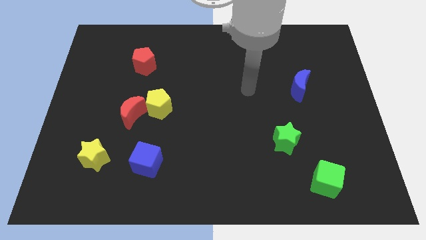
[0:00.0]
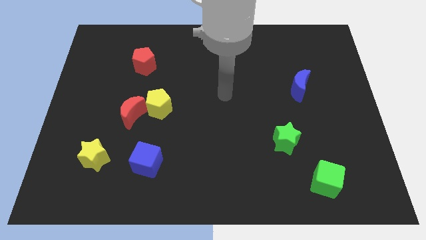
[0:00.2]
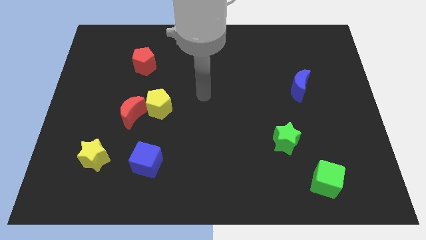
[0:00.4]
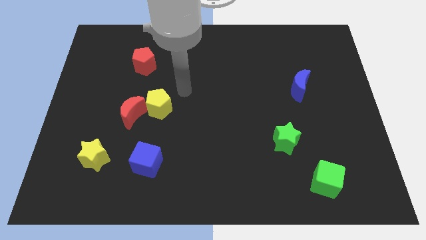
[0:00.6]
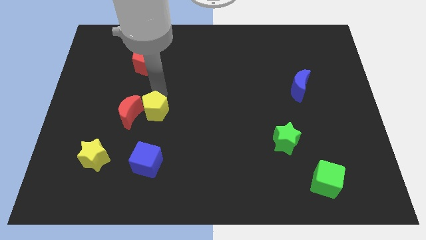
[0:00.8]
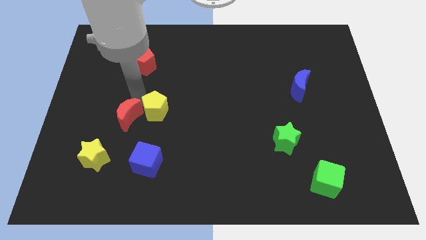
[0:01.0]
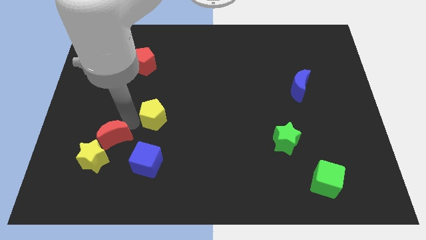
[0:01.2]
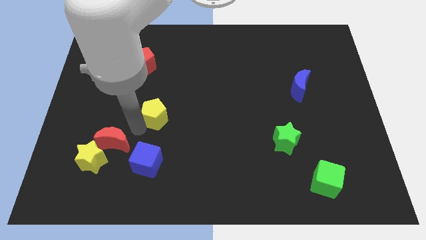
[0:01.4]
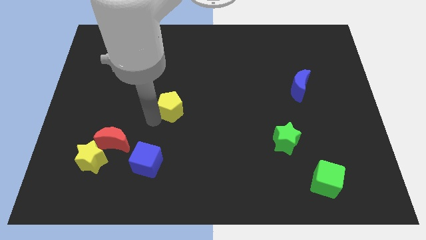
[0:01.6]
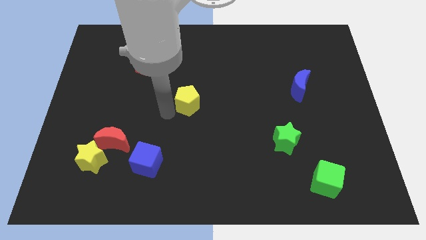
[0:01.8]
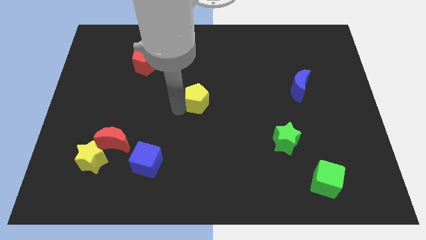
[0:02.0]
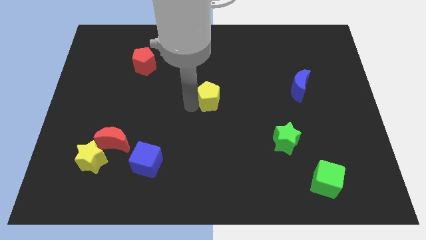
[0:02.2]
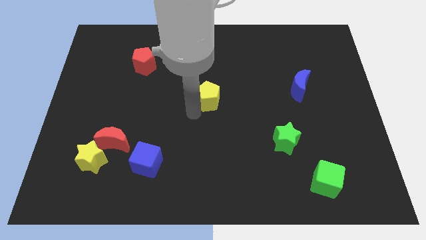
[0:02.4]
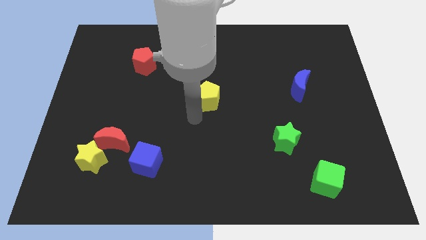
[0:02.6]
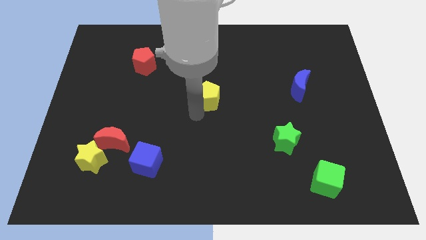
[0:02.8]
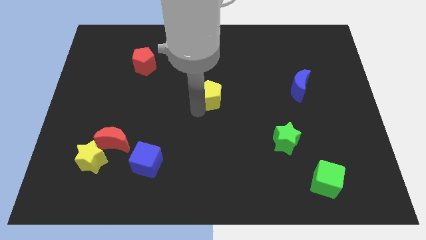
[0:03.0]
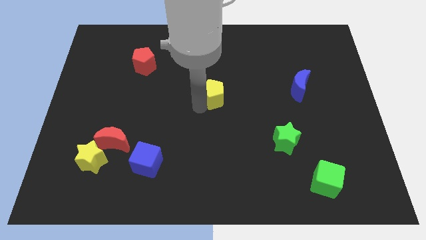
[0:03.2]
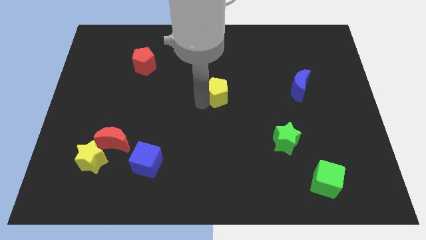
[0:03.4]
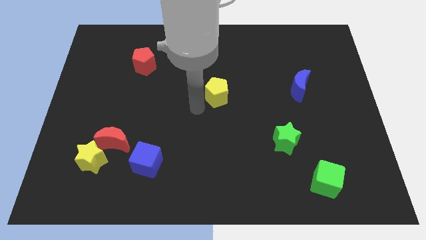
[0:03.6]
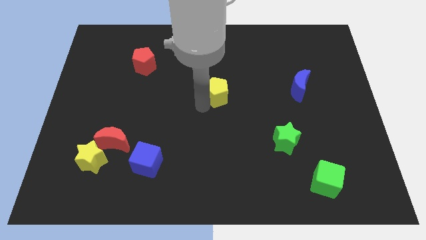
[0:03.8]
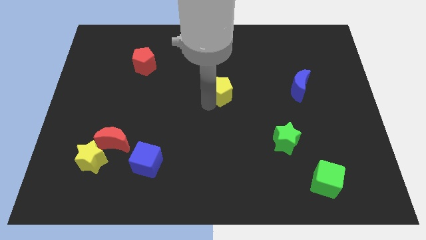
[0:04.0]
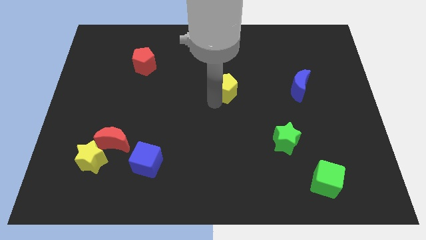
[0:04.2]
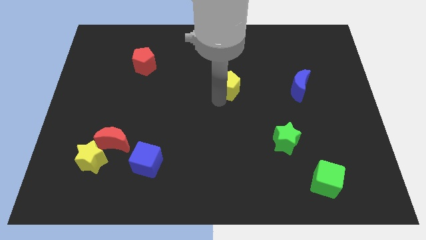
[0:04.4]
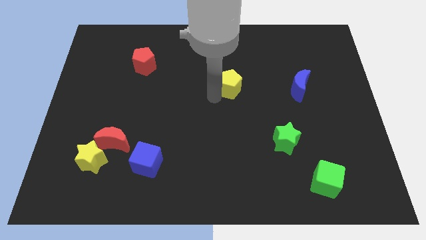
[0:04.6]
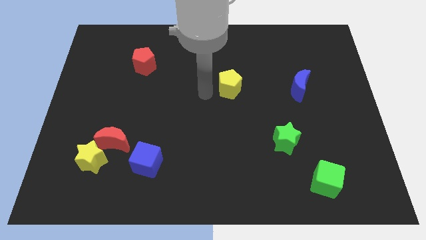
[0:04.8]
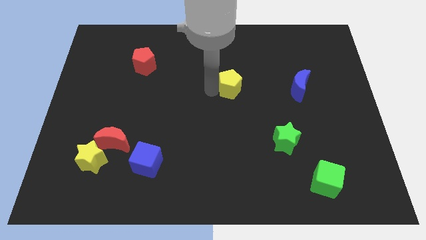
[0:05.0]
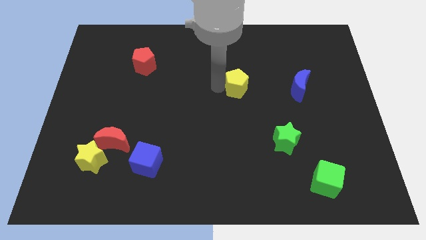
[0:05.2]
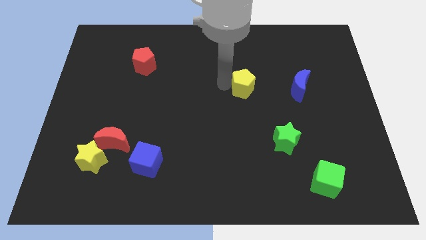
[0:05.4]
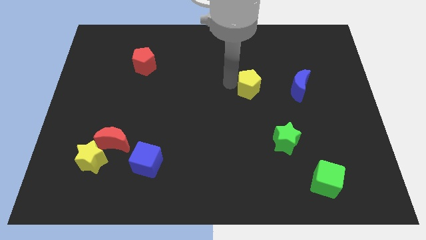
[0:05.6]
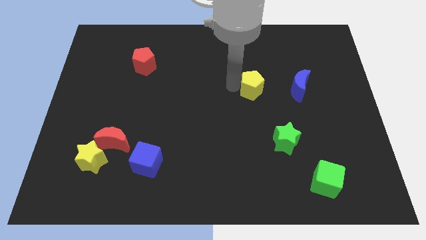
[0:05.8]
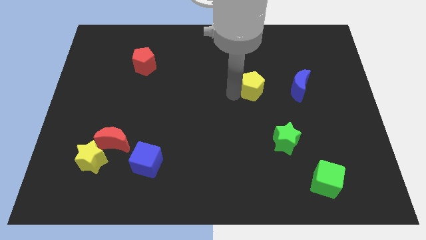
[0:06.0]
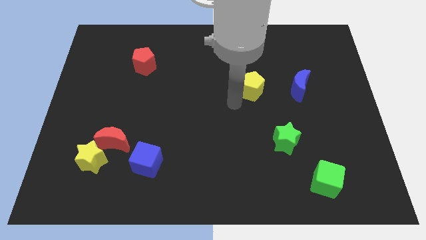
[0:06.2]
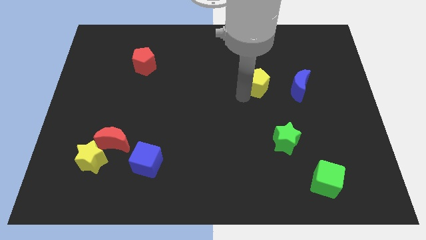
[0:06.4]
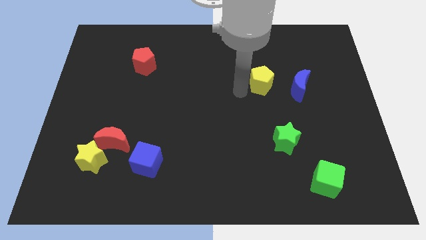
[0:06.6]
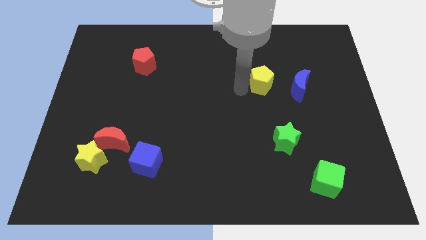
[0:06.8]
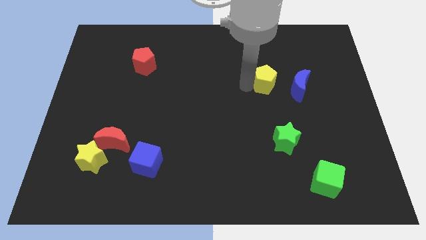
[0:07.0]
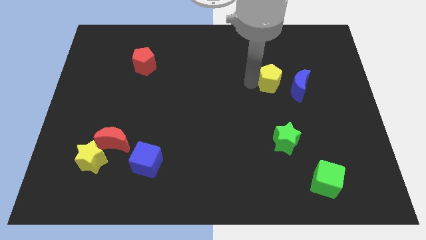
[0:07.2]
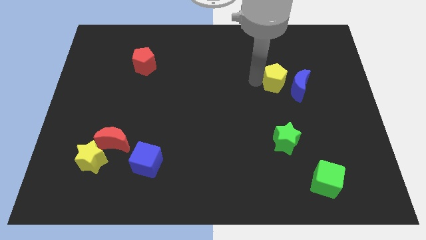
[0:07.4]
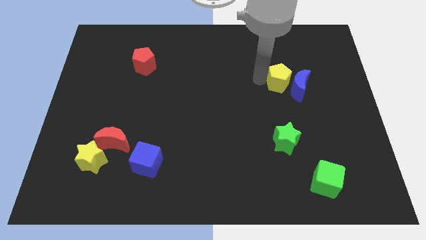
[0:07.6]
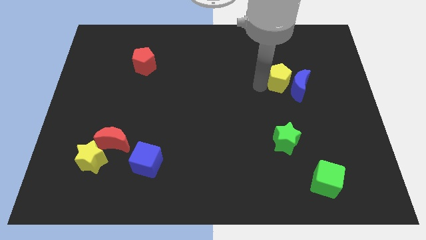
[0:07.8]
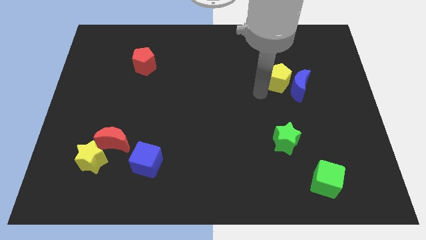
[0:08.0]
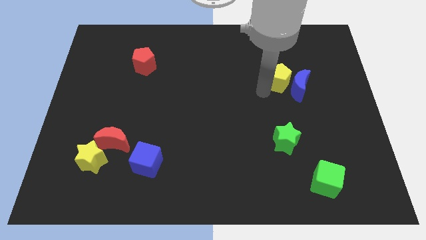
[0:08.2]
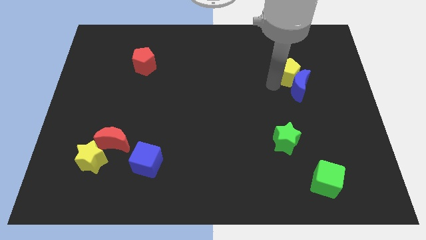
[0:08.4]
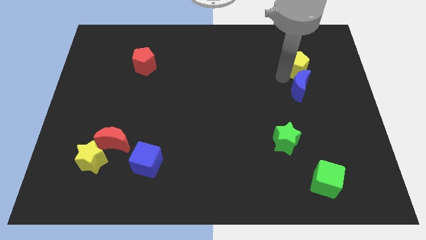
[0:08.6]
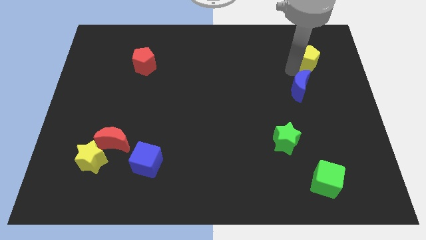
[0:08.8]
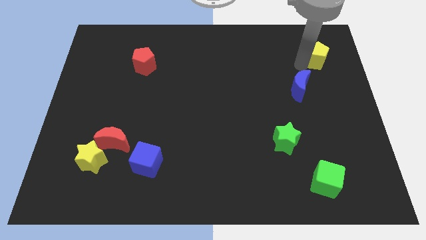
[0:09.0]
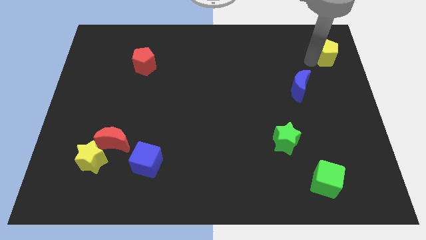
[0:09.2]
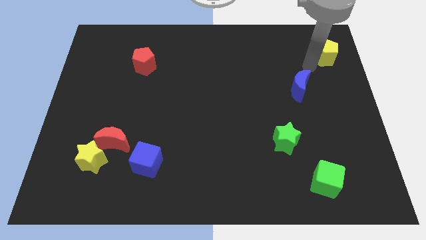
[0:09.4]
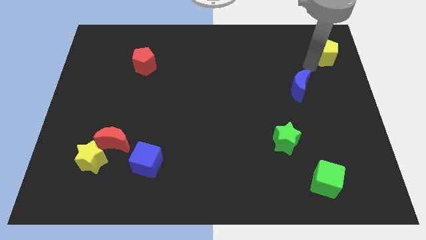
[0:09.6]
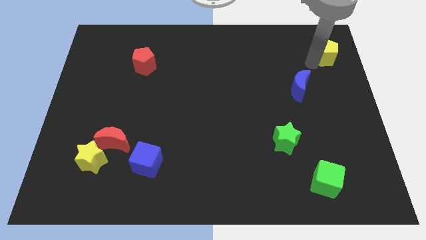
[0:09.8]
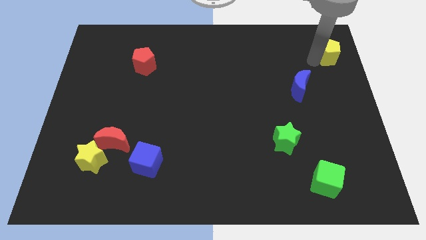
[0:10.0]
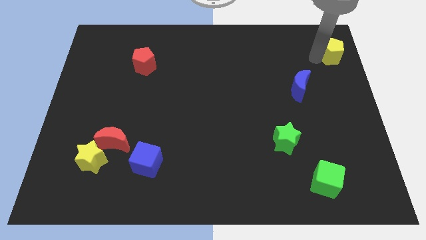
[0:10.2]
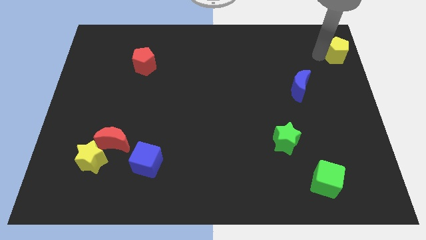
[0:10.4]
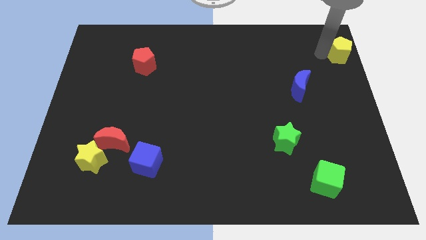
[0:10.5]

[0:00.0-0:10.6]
slide the yellow pentagon to the upper right corner

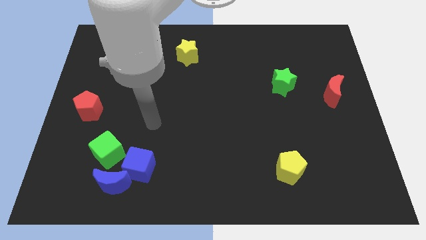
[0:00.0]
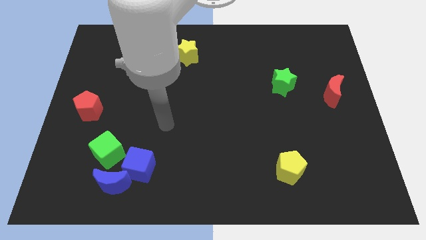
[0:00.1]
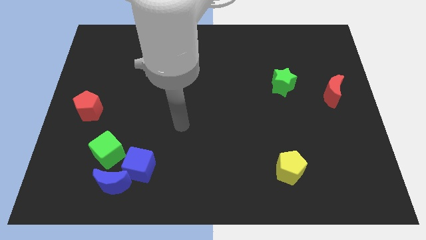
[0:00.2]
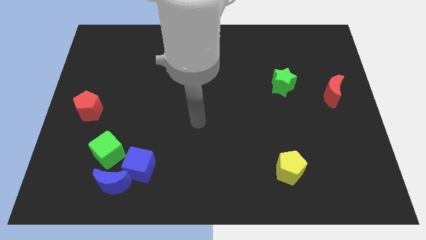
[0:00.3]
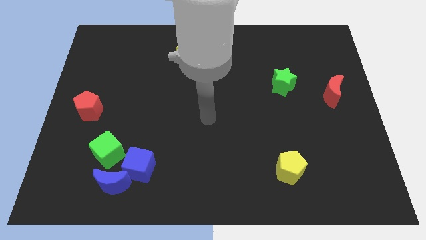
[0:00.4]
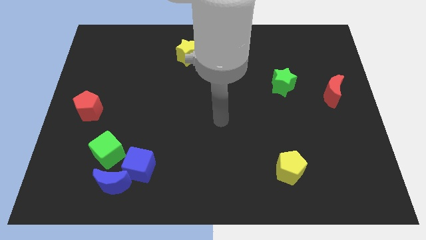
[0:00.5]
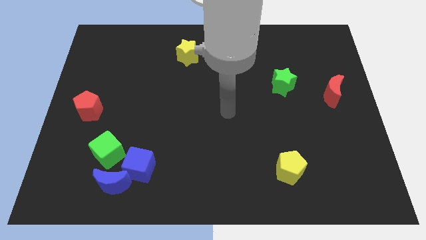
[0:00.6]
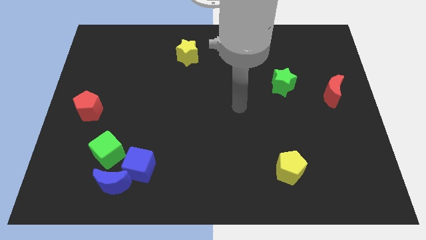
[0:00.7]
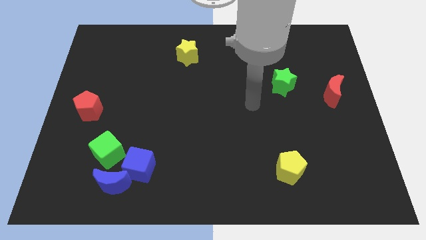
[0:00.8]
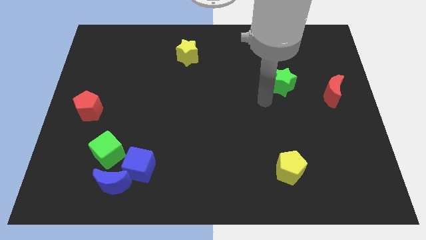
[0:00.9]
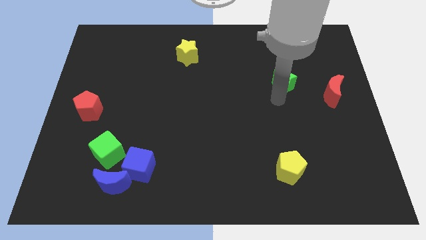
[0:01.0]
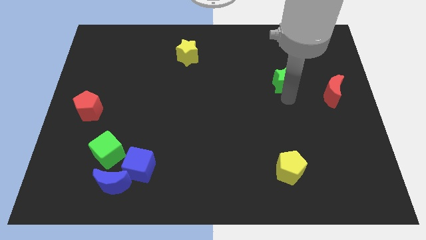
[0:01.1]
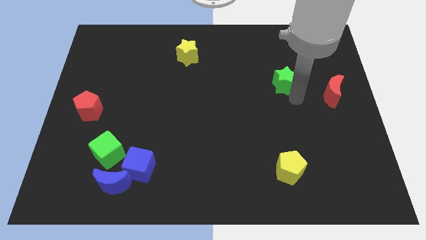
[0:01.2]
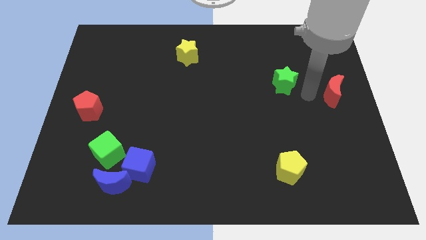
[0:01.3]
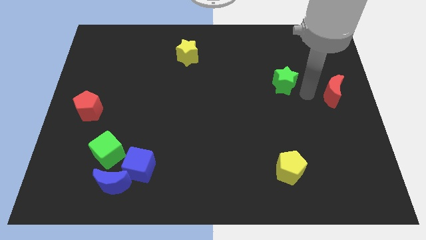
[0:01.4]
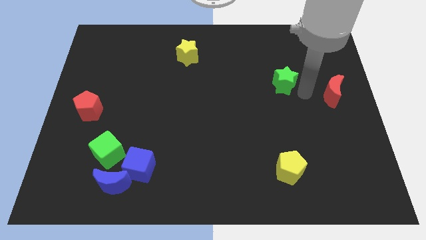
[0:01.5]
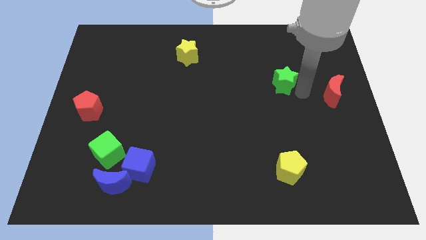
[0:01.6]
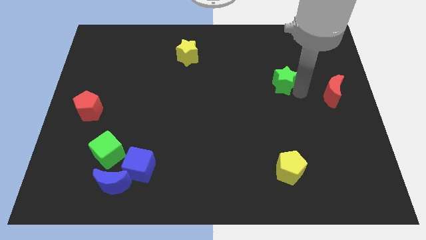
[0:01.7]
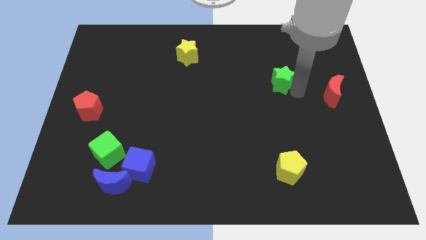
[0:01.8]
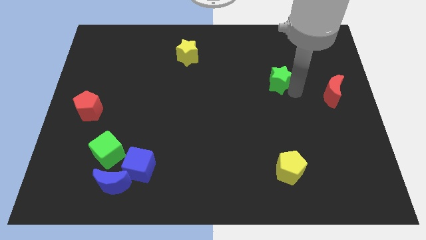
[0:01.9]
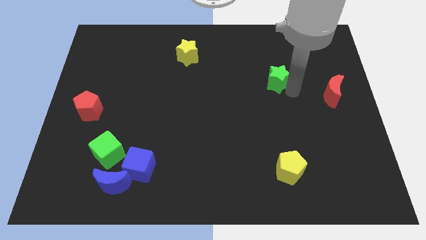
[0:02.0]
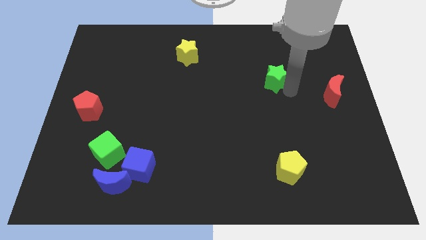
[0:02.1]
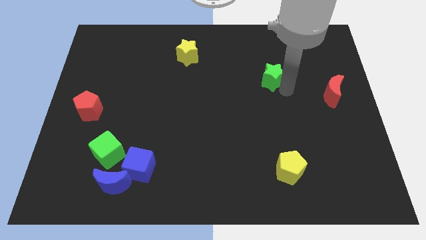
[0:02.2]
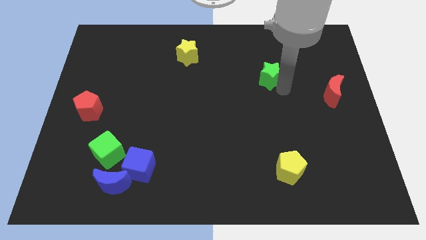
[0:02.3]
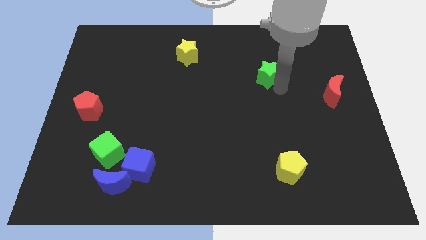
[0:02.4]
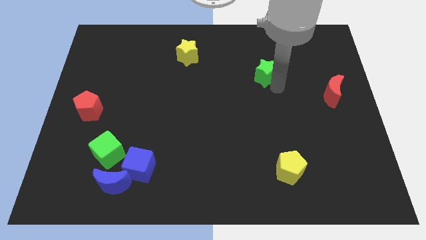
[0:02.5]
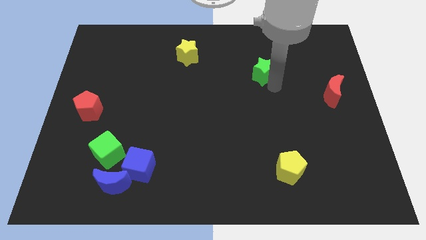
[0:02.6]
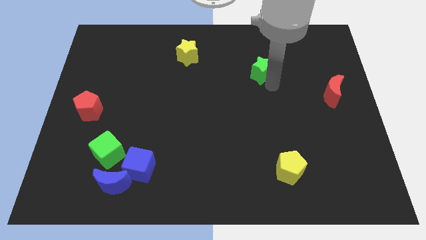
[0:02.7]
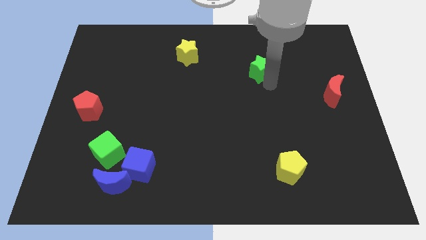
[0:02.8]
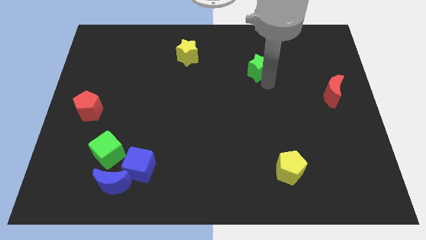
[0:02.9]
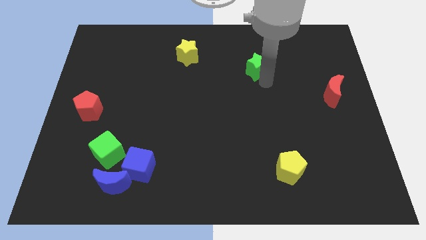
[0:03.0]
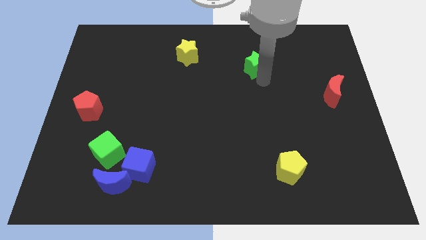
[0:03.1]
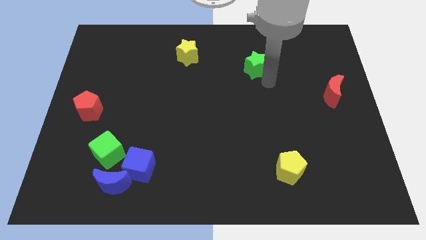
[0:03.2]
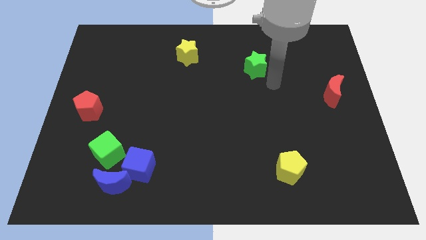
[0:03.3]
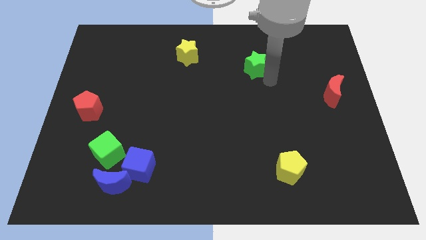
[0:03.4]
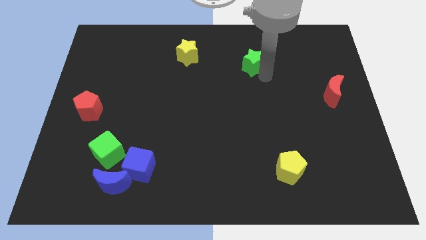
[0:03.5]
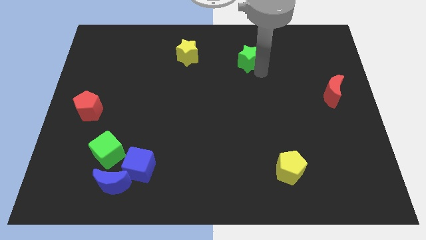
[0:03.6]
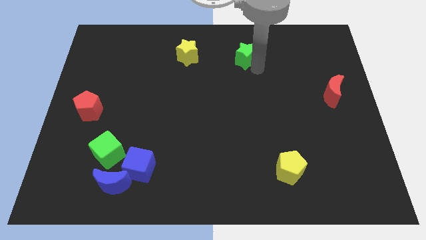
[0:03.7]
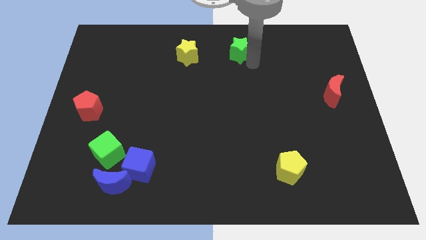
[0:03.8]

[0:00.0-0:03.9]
slide the green star to the top
